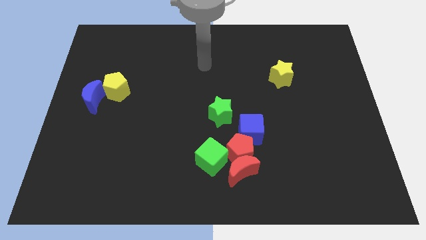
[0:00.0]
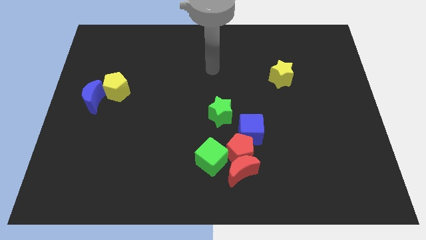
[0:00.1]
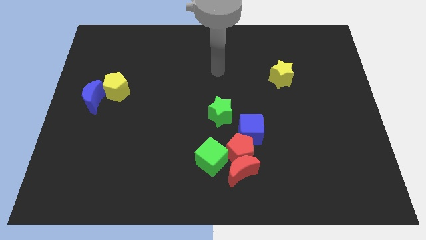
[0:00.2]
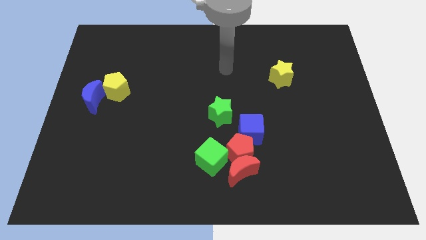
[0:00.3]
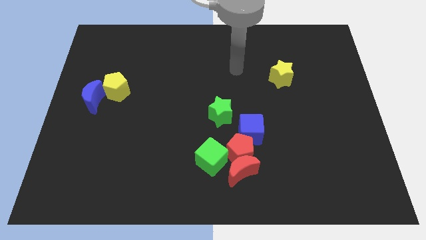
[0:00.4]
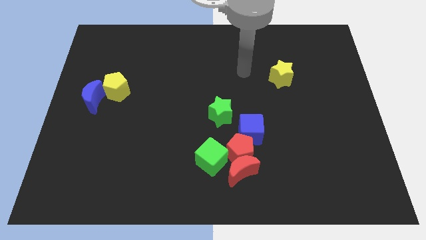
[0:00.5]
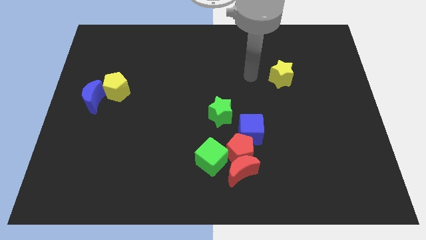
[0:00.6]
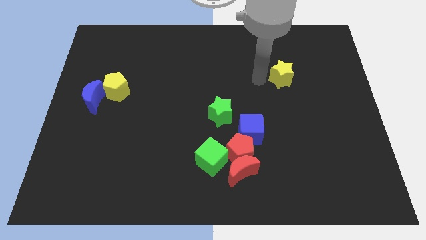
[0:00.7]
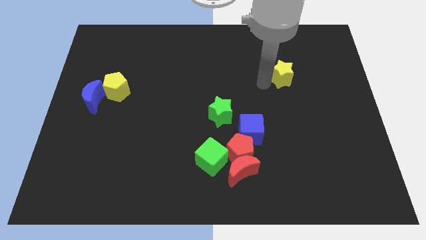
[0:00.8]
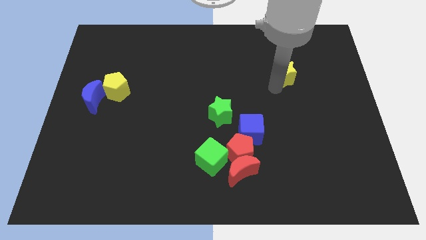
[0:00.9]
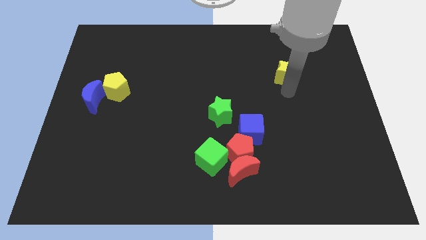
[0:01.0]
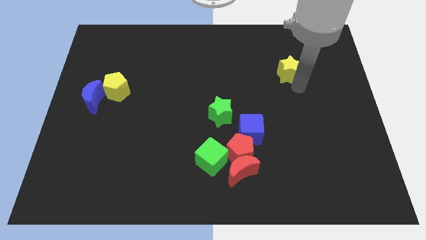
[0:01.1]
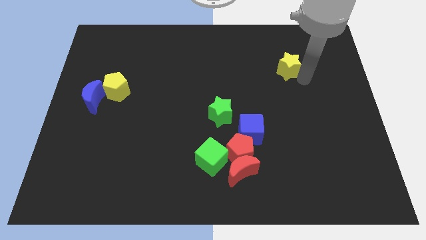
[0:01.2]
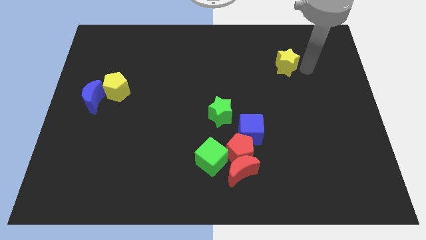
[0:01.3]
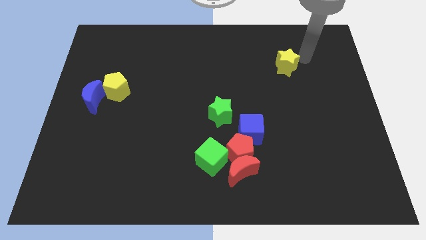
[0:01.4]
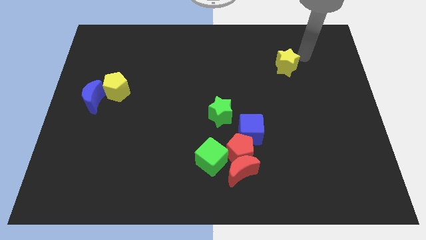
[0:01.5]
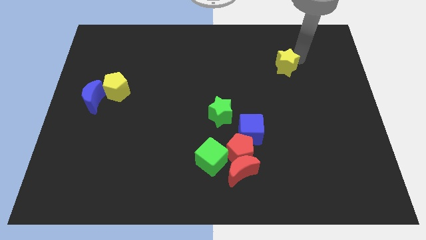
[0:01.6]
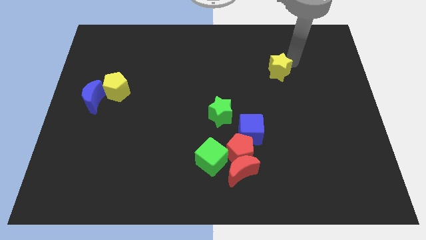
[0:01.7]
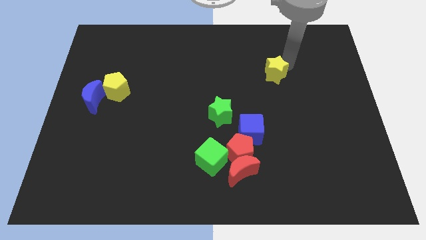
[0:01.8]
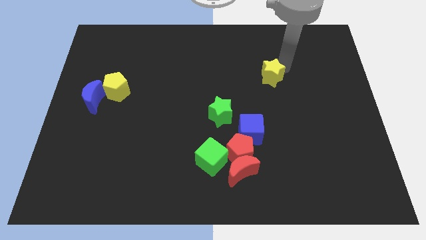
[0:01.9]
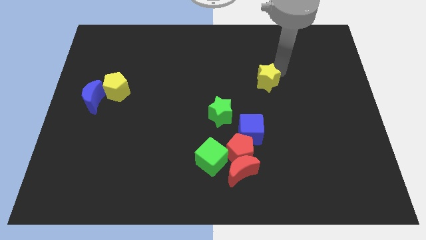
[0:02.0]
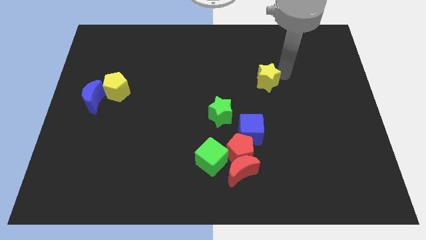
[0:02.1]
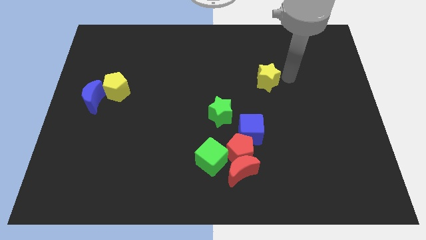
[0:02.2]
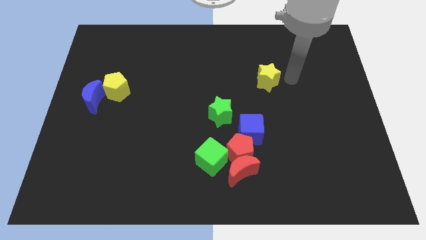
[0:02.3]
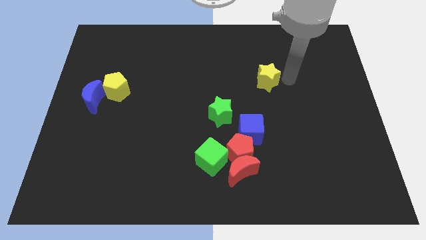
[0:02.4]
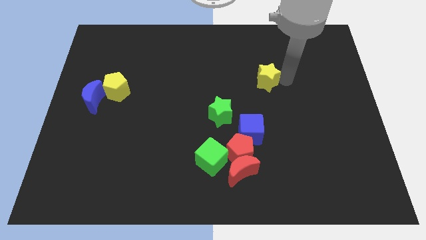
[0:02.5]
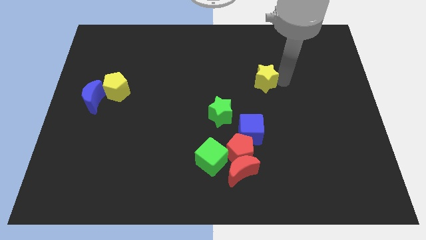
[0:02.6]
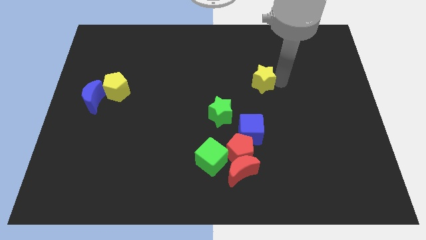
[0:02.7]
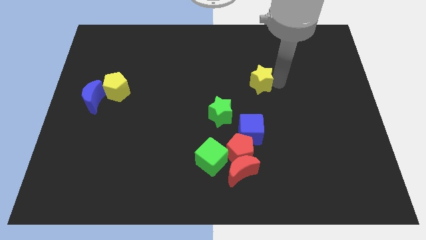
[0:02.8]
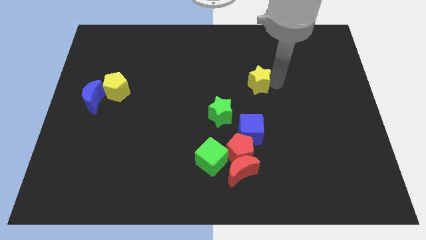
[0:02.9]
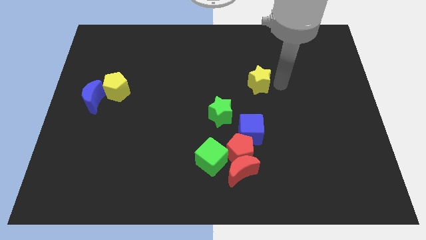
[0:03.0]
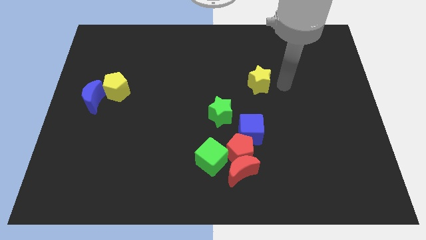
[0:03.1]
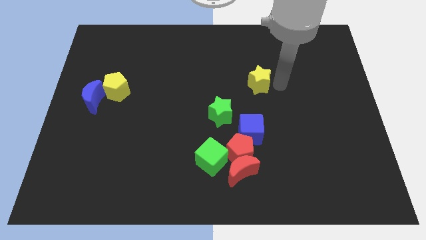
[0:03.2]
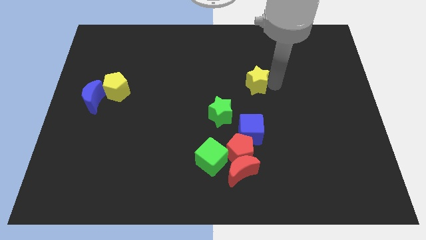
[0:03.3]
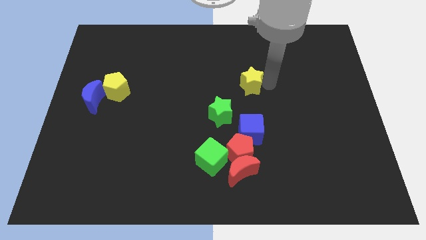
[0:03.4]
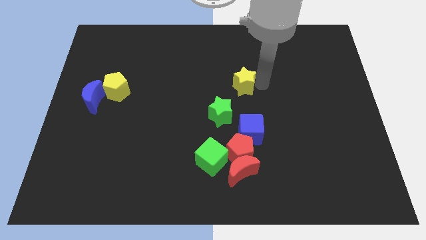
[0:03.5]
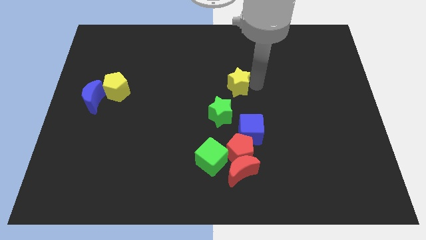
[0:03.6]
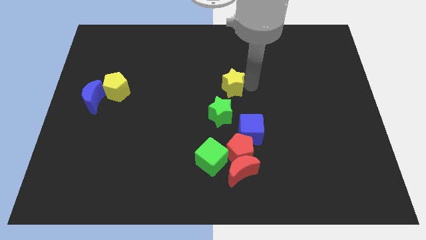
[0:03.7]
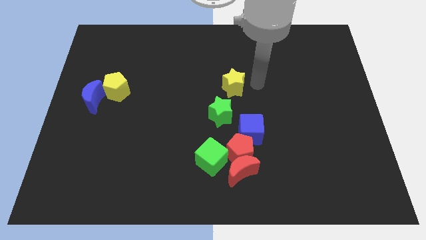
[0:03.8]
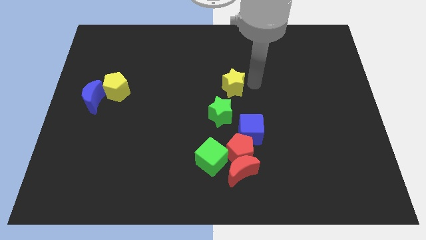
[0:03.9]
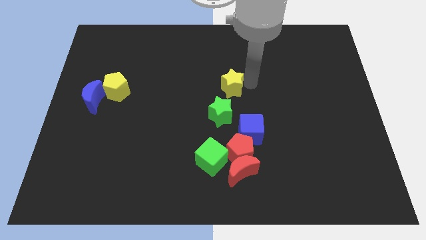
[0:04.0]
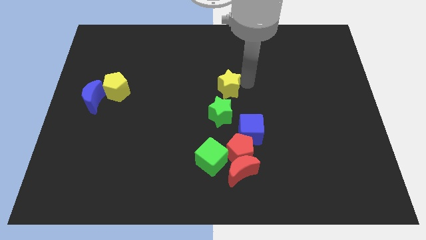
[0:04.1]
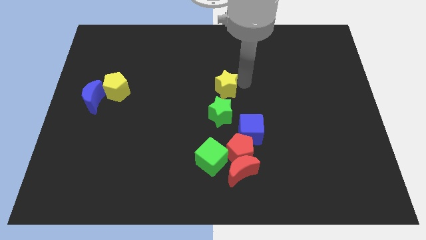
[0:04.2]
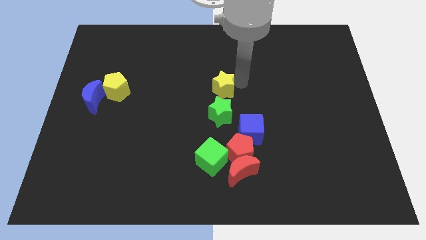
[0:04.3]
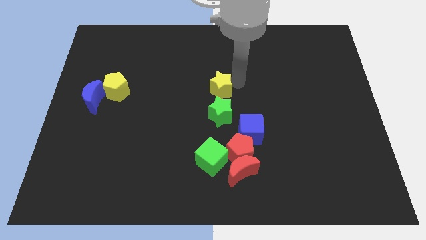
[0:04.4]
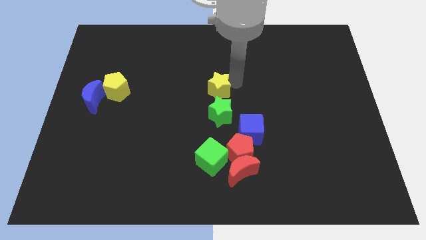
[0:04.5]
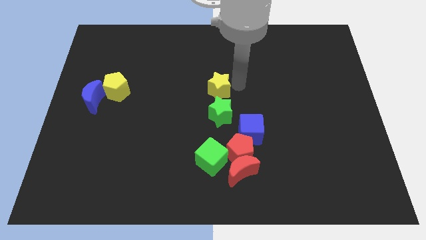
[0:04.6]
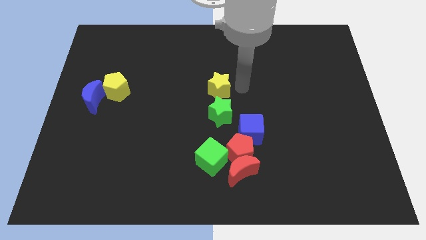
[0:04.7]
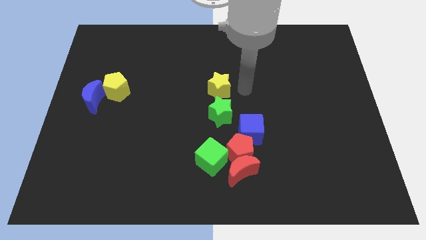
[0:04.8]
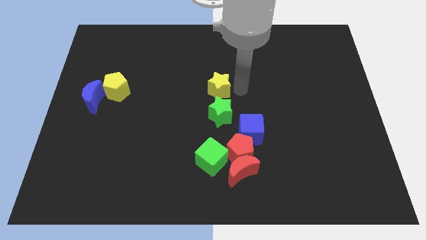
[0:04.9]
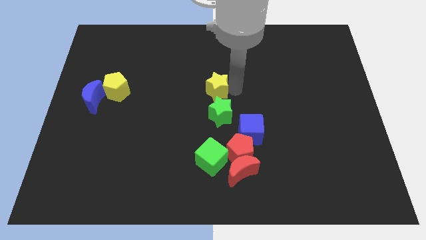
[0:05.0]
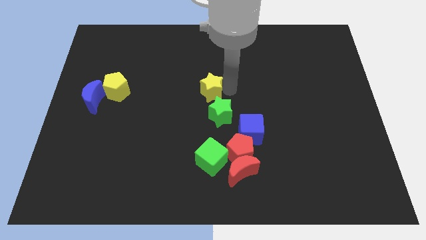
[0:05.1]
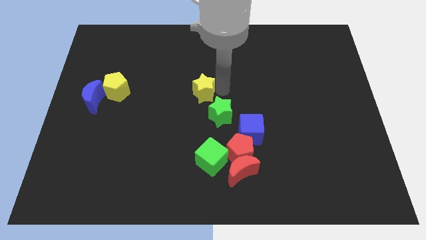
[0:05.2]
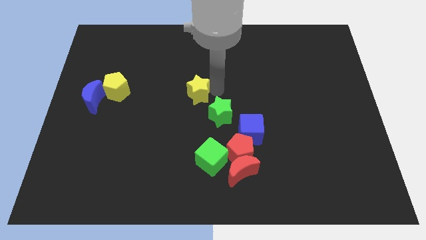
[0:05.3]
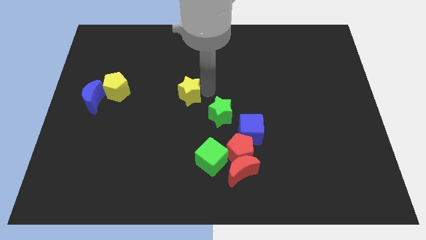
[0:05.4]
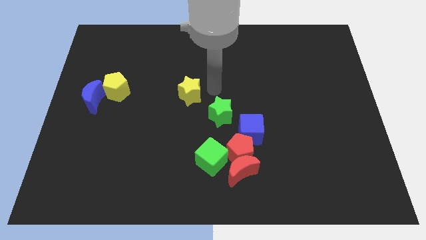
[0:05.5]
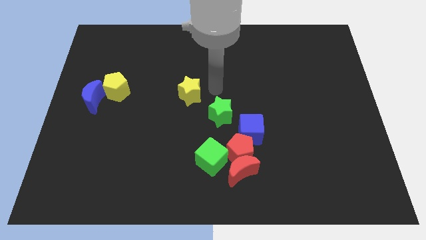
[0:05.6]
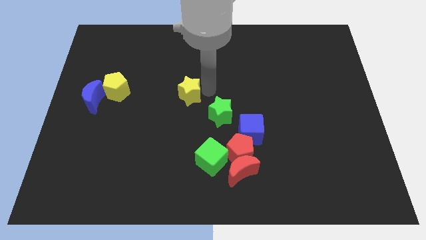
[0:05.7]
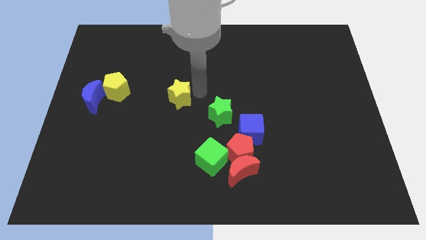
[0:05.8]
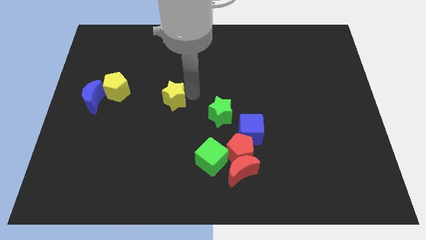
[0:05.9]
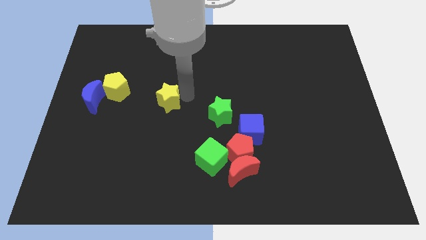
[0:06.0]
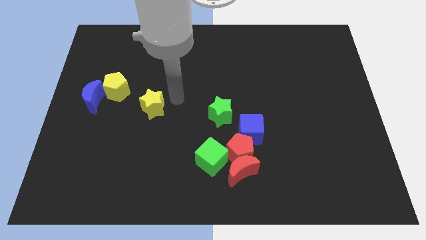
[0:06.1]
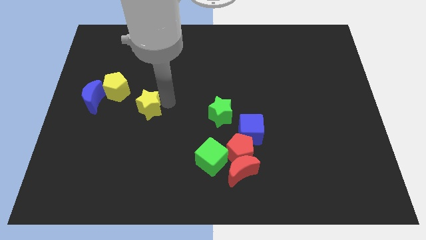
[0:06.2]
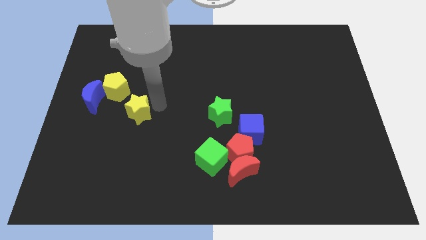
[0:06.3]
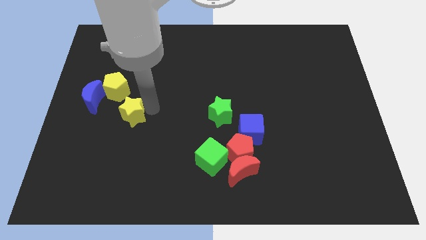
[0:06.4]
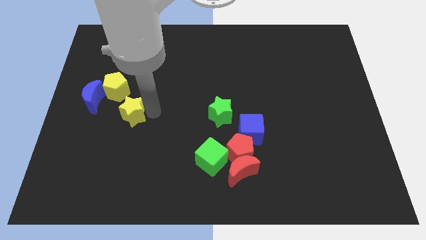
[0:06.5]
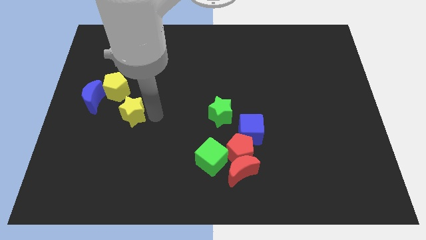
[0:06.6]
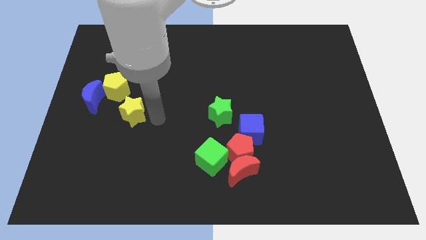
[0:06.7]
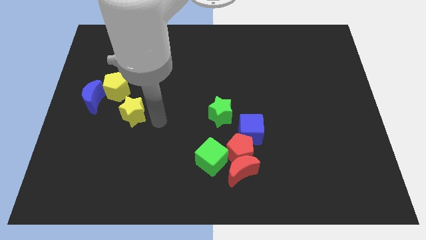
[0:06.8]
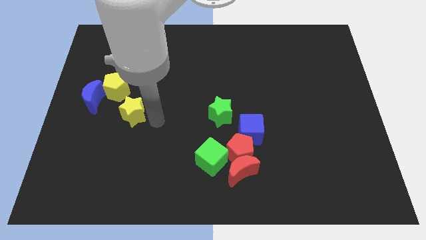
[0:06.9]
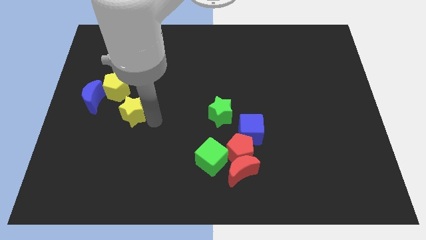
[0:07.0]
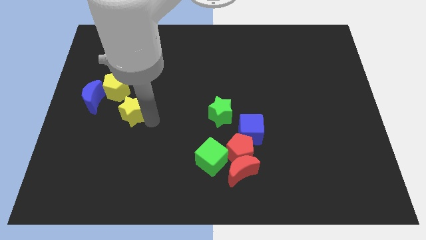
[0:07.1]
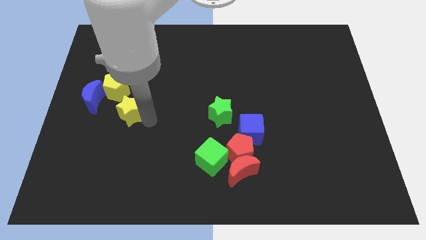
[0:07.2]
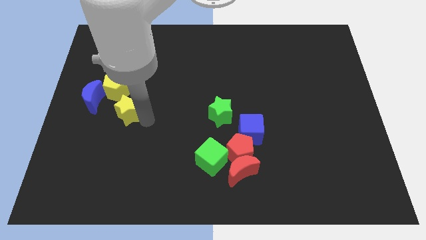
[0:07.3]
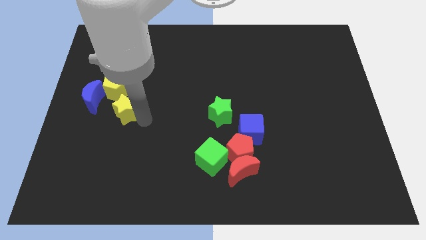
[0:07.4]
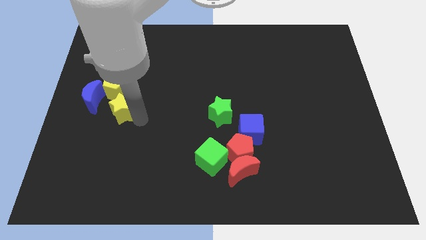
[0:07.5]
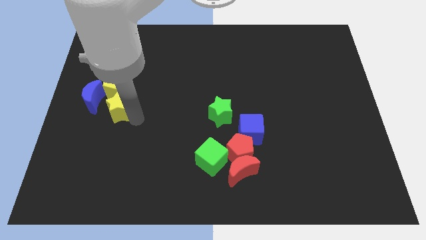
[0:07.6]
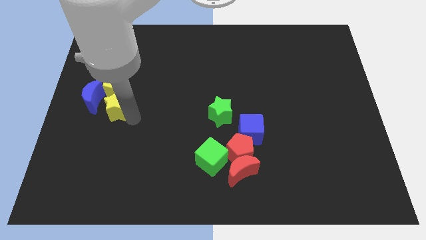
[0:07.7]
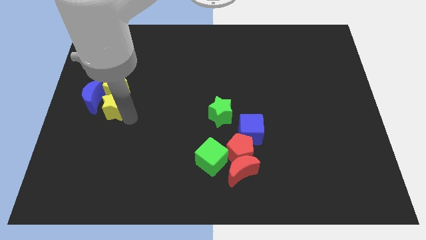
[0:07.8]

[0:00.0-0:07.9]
push the yellow star towards the blue moon
